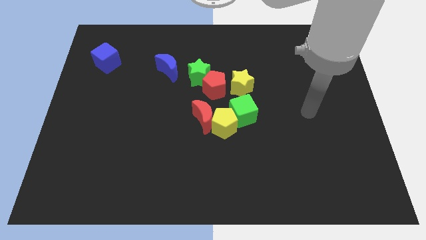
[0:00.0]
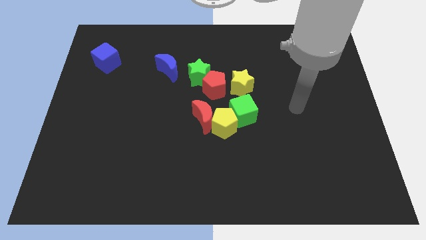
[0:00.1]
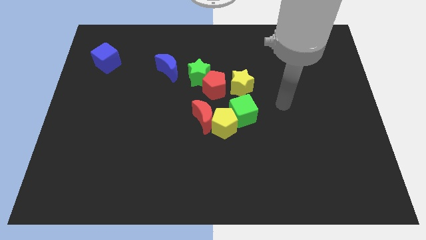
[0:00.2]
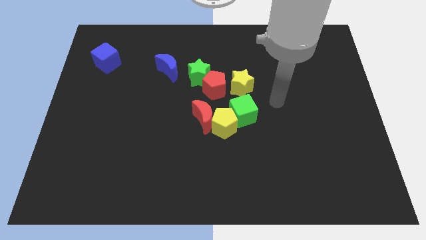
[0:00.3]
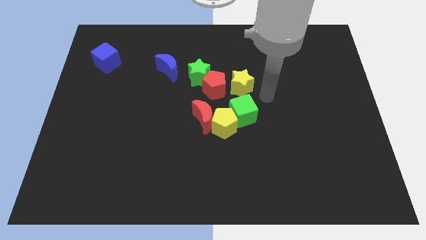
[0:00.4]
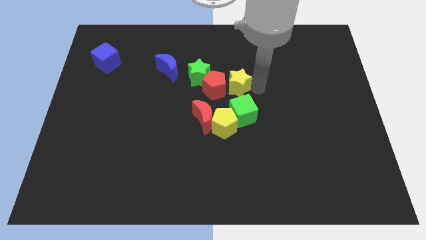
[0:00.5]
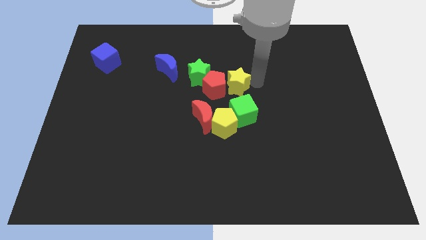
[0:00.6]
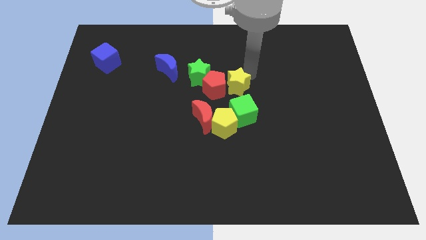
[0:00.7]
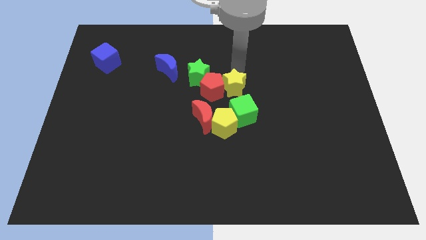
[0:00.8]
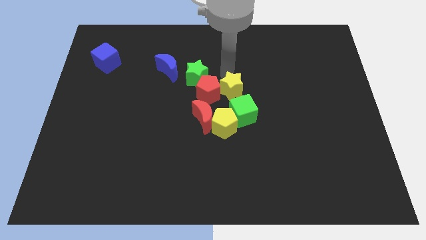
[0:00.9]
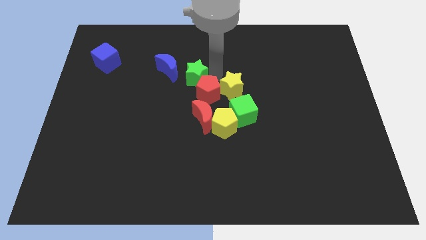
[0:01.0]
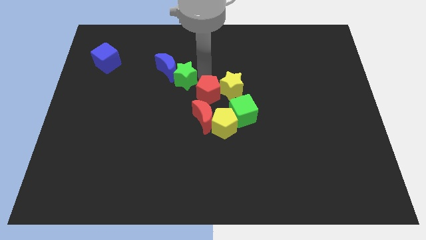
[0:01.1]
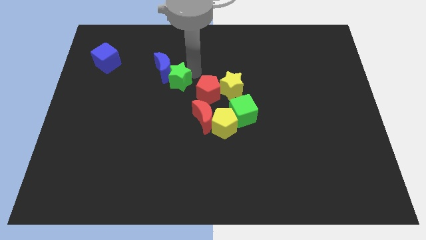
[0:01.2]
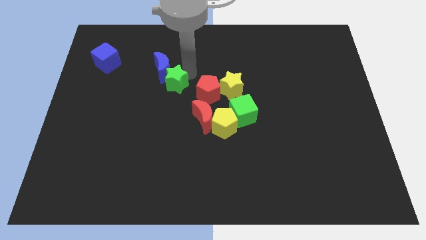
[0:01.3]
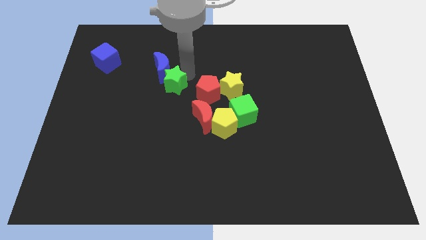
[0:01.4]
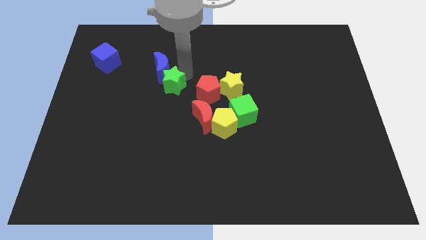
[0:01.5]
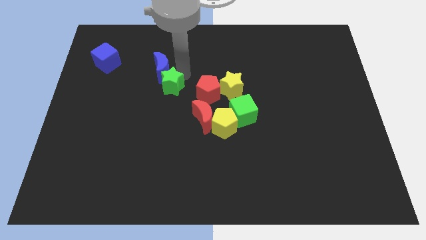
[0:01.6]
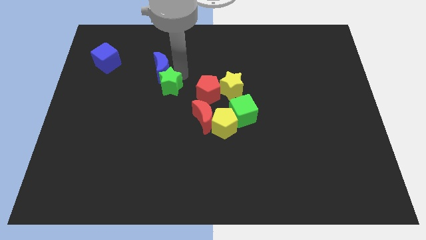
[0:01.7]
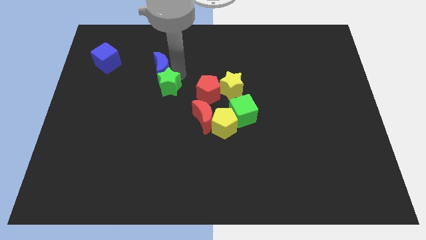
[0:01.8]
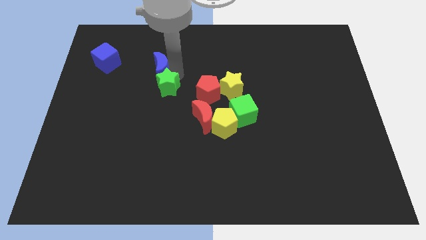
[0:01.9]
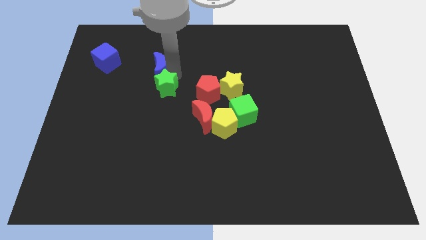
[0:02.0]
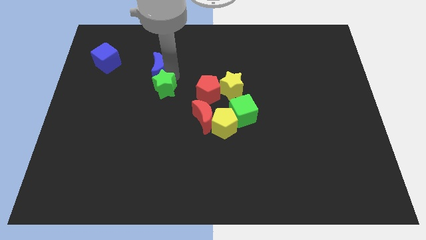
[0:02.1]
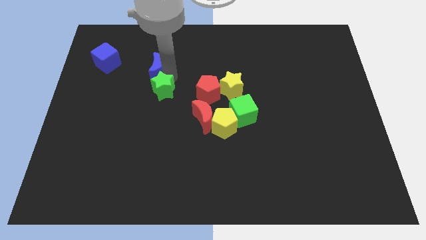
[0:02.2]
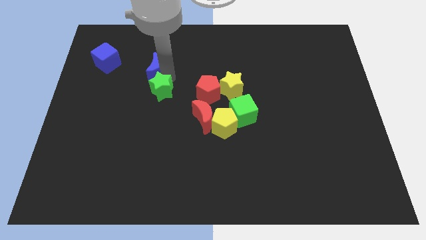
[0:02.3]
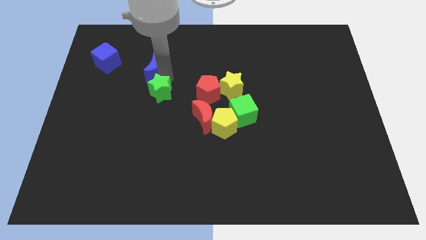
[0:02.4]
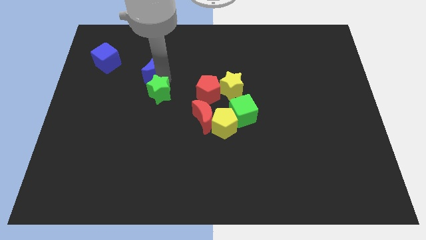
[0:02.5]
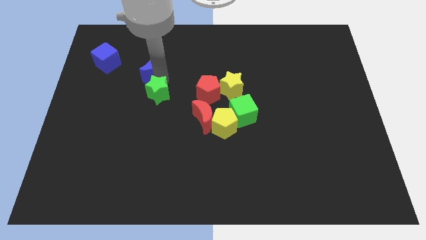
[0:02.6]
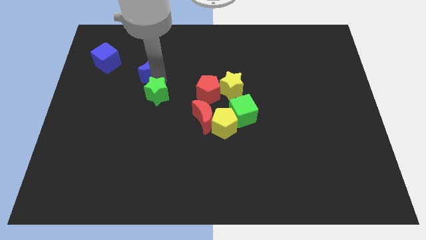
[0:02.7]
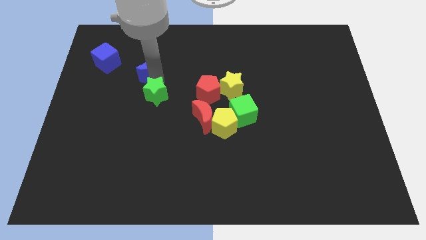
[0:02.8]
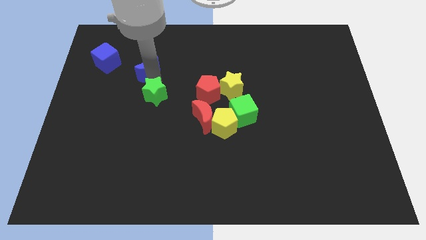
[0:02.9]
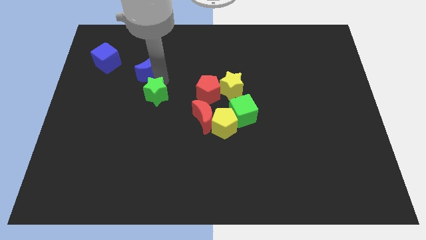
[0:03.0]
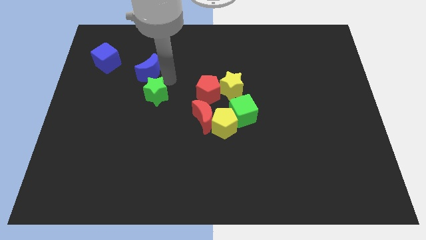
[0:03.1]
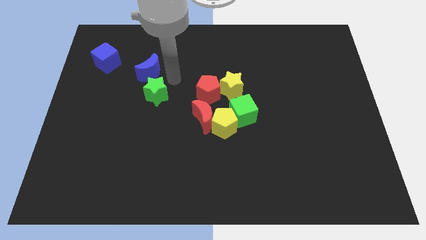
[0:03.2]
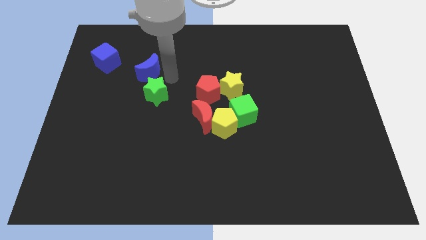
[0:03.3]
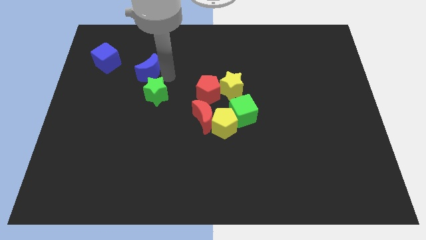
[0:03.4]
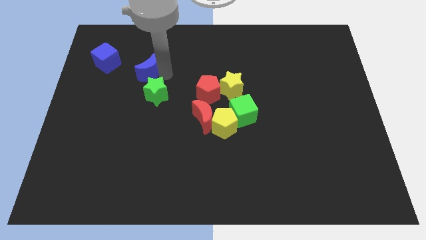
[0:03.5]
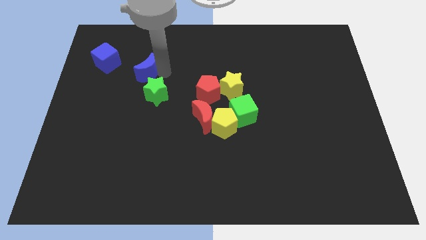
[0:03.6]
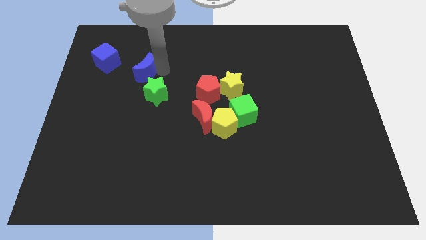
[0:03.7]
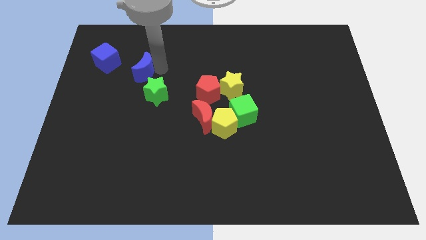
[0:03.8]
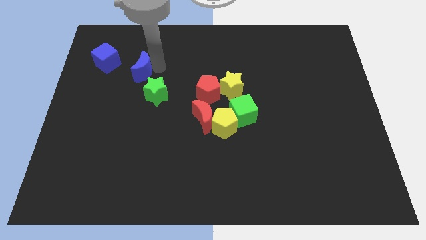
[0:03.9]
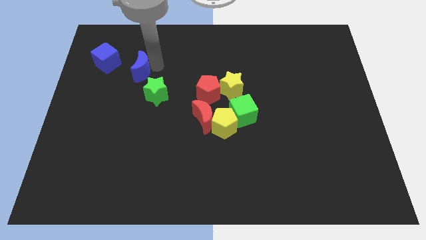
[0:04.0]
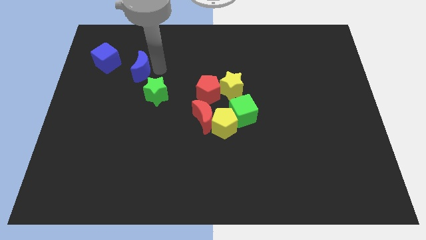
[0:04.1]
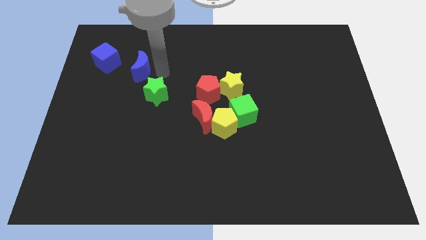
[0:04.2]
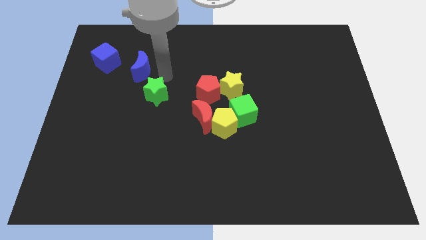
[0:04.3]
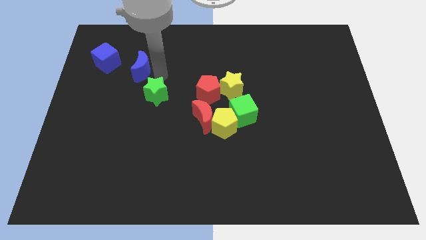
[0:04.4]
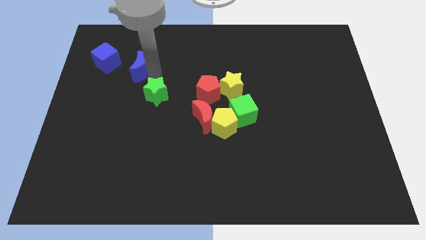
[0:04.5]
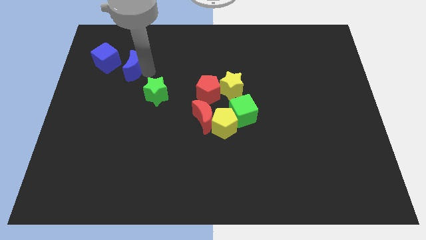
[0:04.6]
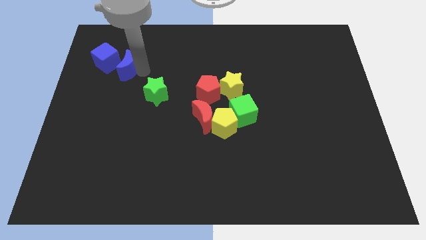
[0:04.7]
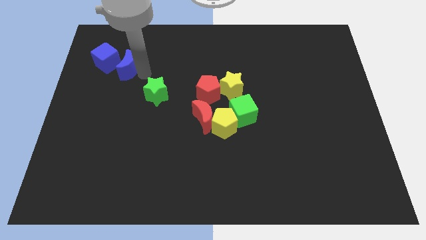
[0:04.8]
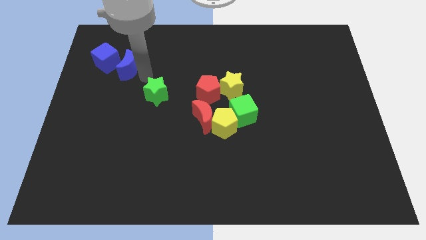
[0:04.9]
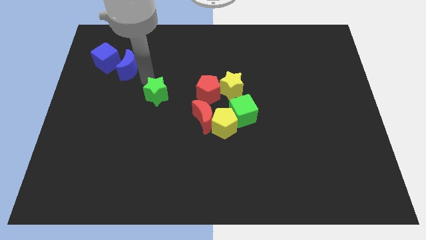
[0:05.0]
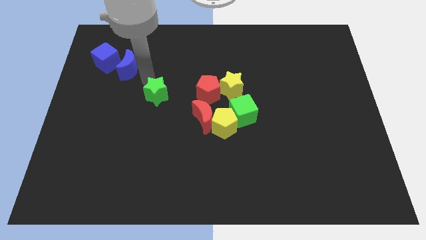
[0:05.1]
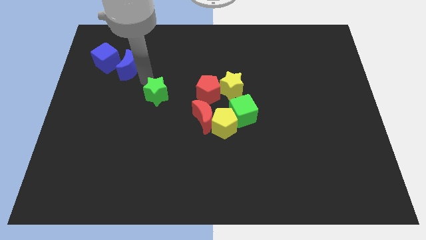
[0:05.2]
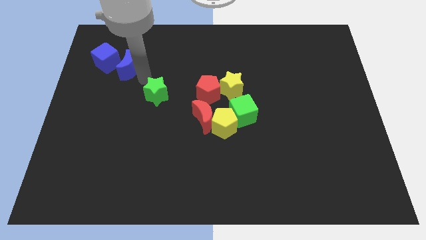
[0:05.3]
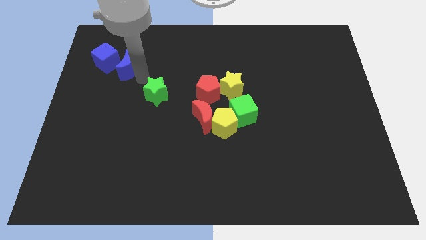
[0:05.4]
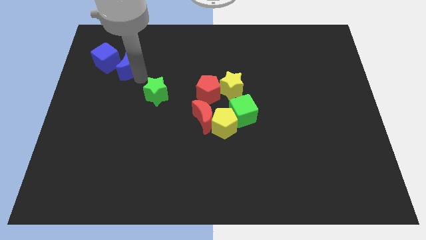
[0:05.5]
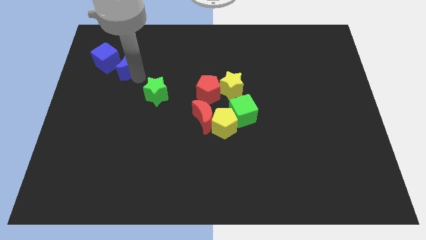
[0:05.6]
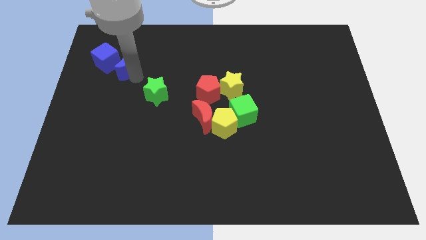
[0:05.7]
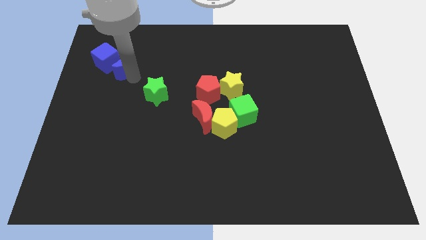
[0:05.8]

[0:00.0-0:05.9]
slide the blue moon towards the blue cube

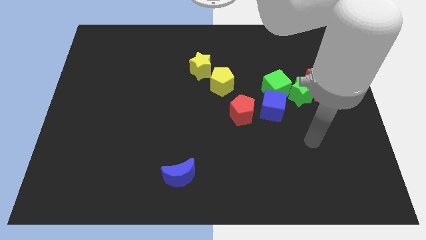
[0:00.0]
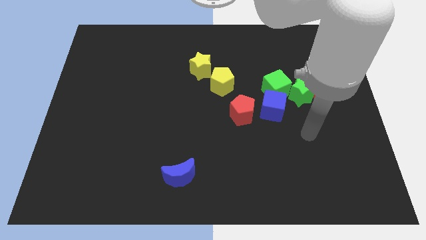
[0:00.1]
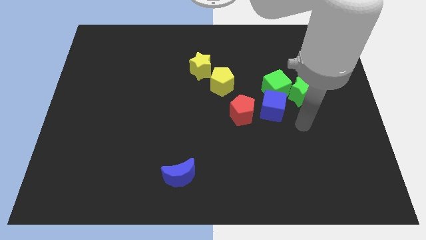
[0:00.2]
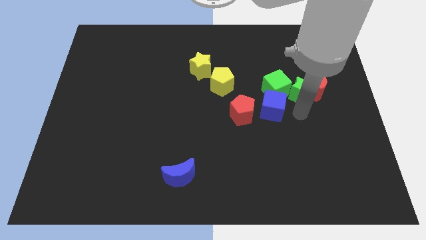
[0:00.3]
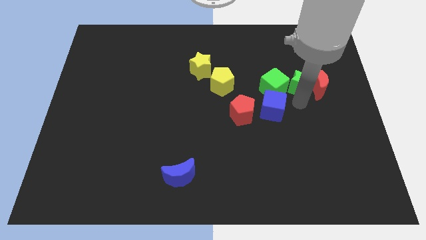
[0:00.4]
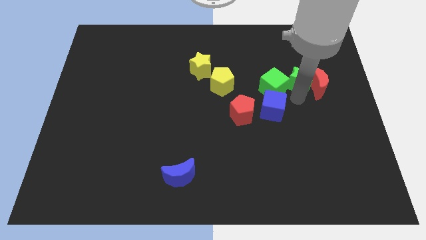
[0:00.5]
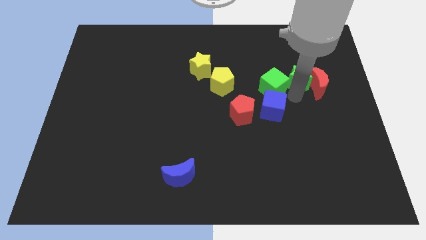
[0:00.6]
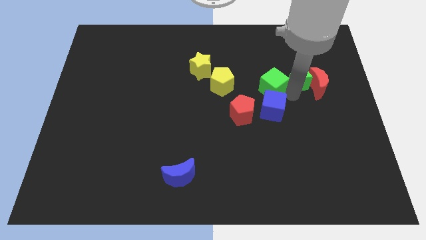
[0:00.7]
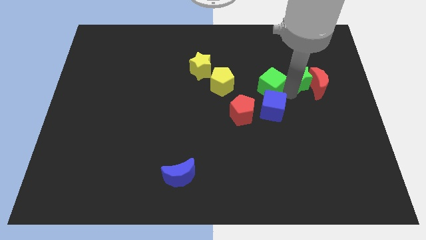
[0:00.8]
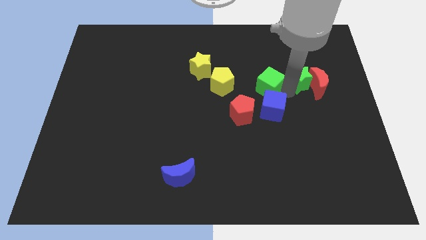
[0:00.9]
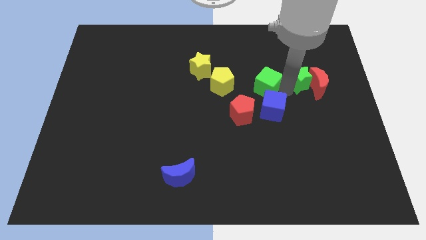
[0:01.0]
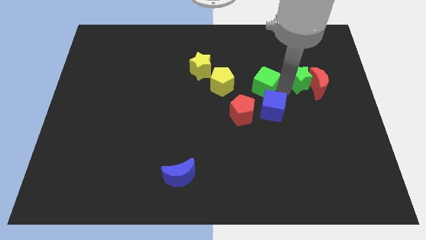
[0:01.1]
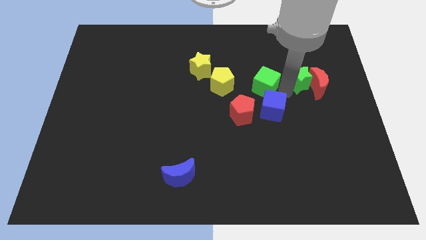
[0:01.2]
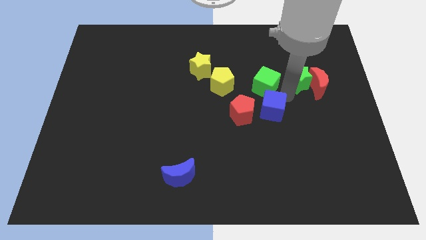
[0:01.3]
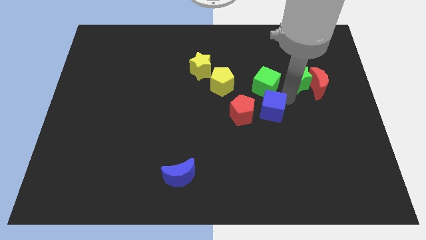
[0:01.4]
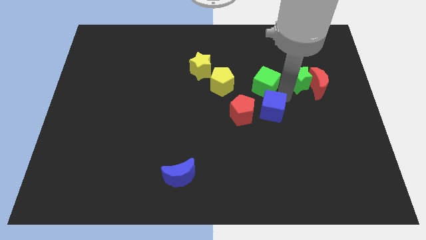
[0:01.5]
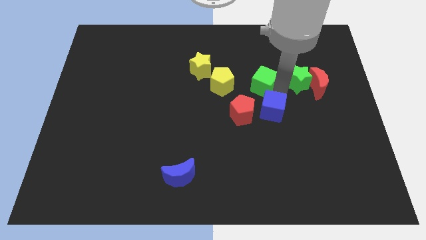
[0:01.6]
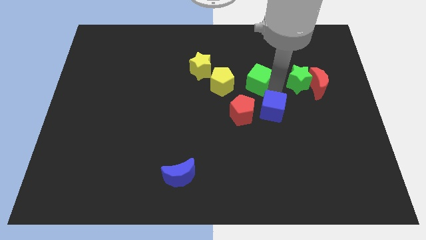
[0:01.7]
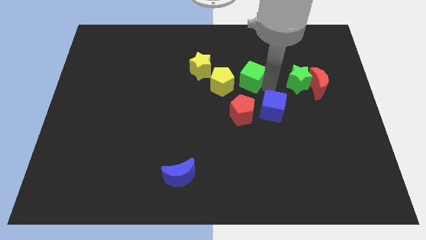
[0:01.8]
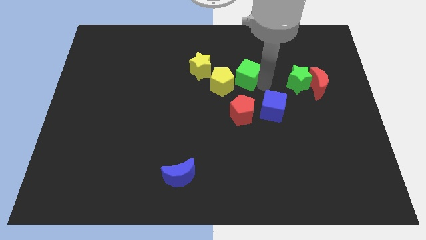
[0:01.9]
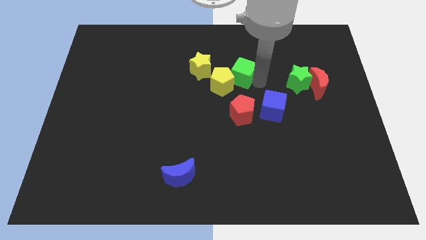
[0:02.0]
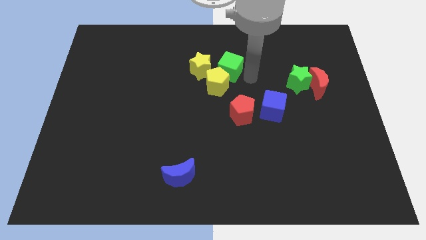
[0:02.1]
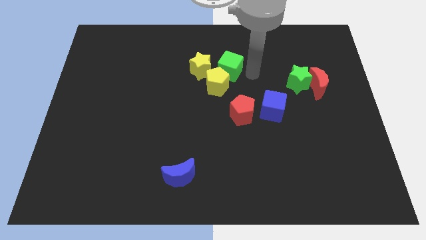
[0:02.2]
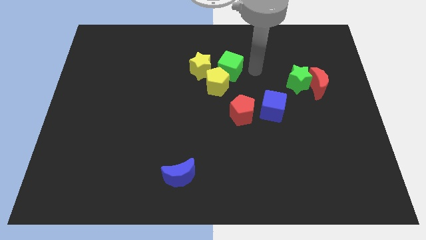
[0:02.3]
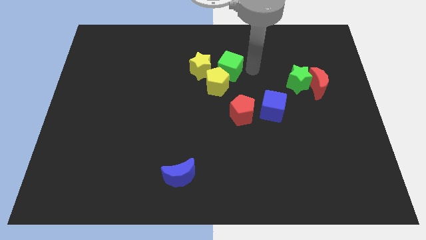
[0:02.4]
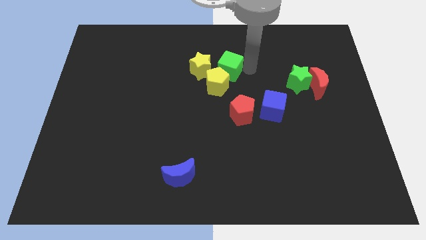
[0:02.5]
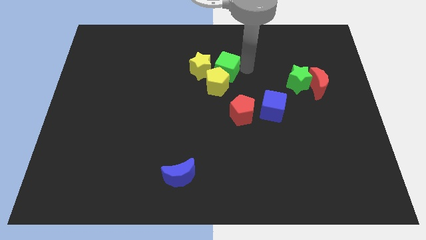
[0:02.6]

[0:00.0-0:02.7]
push the green cube to the yellow star
